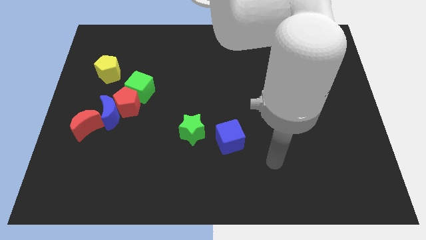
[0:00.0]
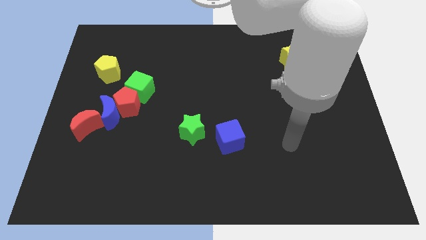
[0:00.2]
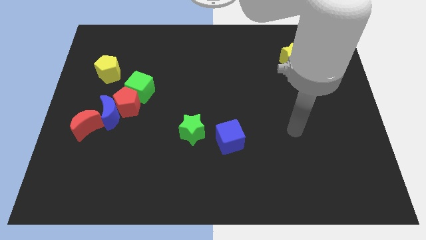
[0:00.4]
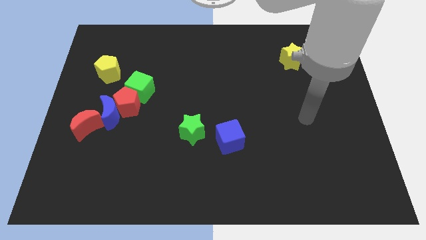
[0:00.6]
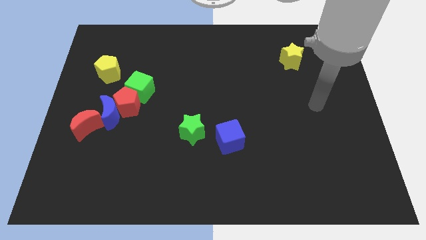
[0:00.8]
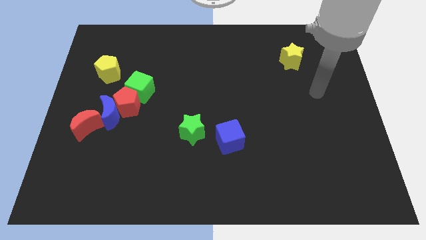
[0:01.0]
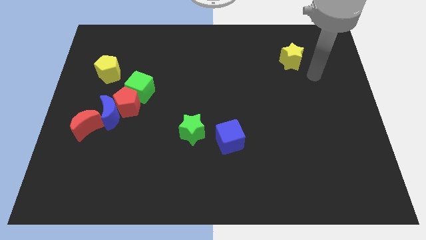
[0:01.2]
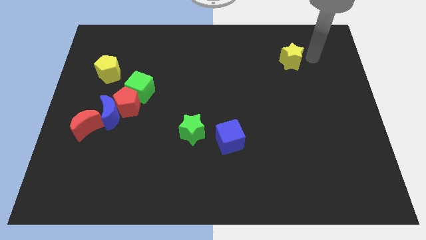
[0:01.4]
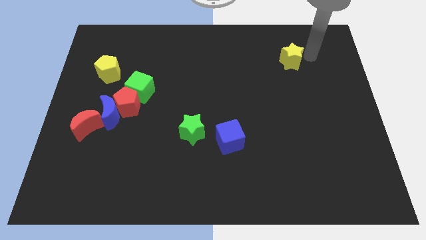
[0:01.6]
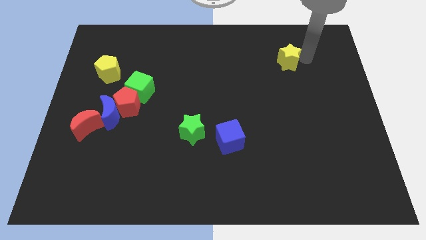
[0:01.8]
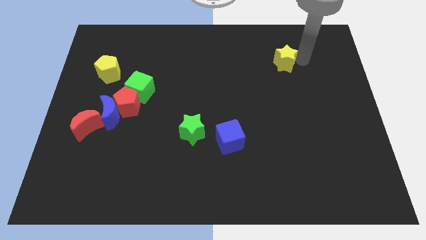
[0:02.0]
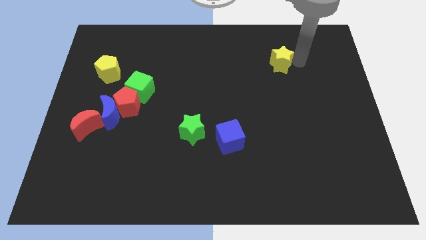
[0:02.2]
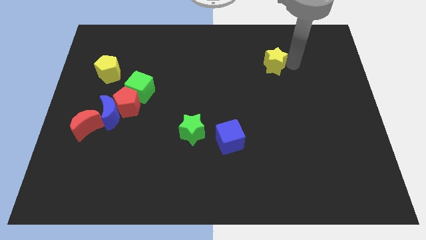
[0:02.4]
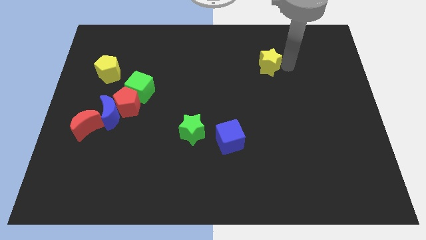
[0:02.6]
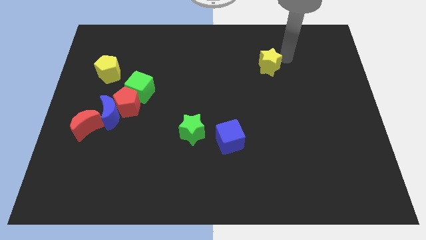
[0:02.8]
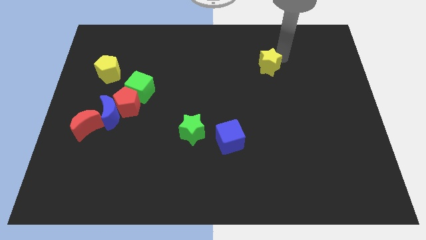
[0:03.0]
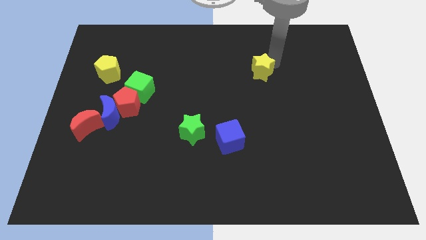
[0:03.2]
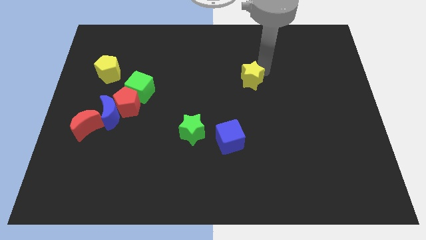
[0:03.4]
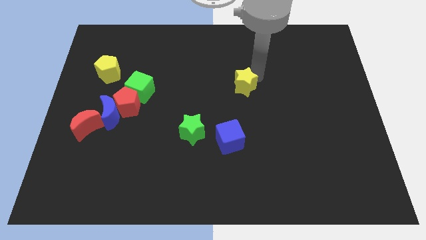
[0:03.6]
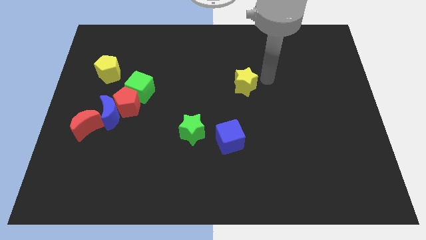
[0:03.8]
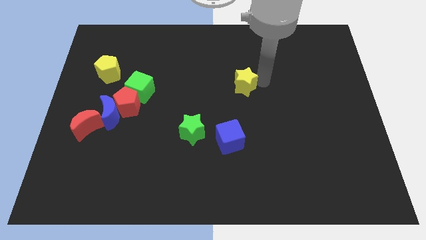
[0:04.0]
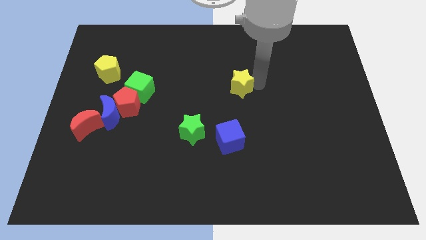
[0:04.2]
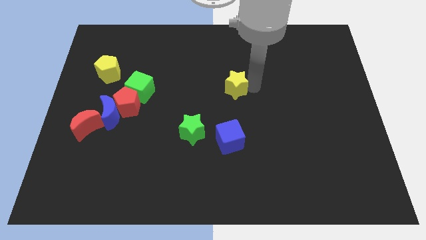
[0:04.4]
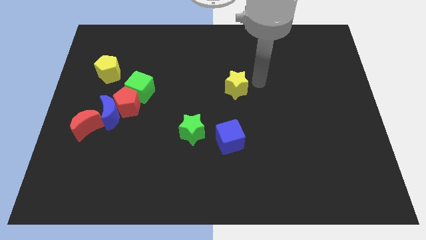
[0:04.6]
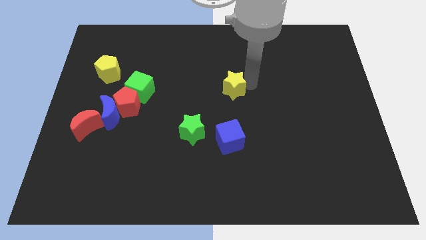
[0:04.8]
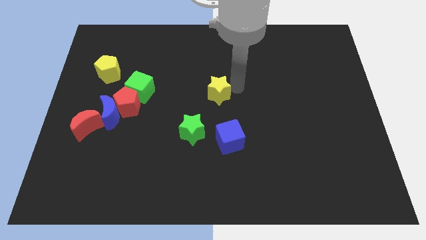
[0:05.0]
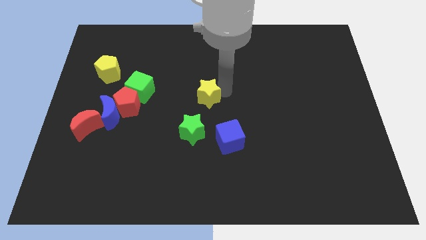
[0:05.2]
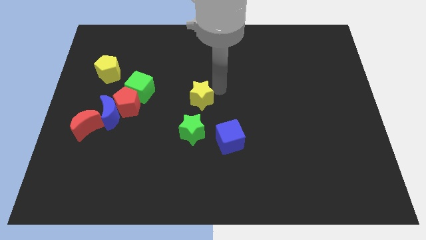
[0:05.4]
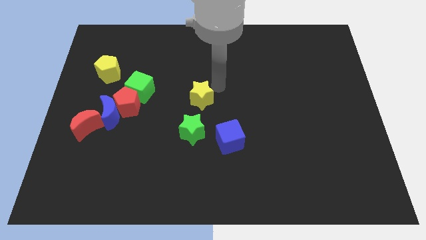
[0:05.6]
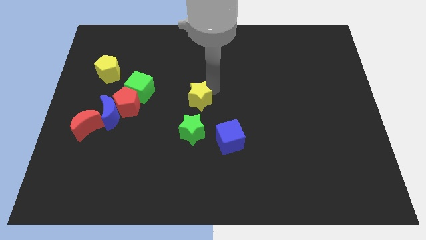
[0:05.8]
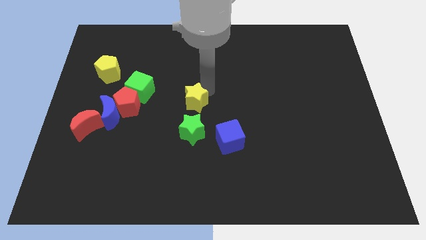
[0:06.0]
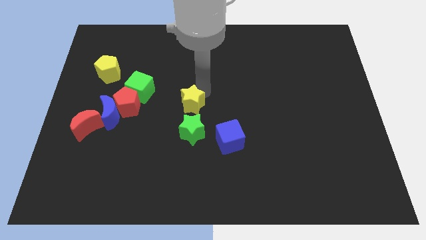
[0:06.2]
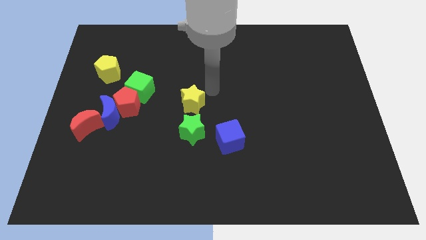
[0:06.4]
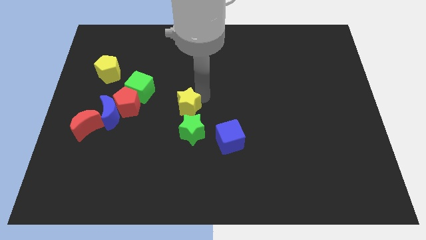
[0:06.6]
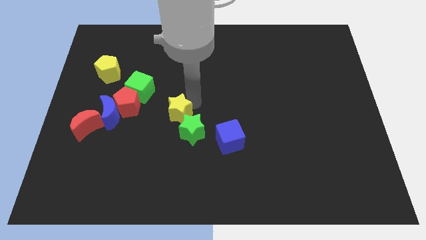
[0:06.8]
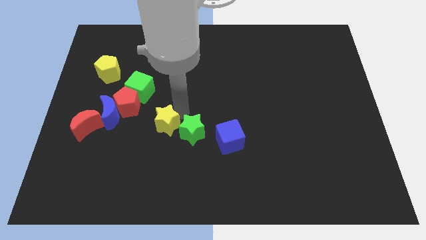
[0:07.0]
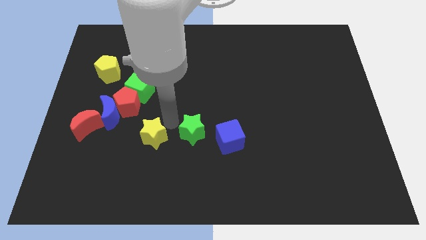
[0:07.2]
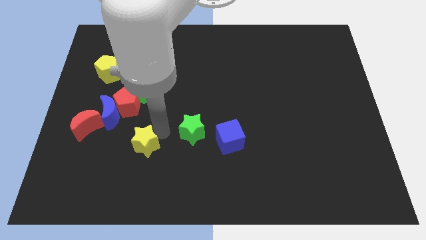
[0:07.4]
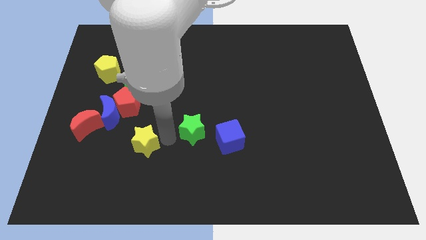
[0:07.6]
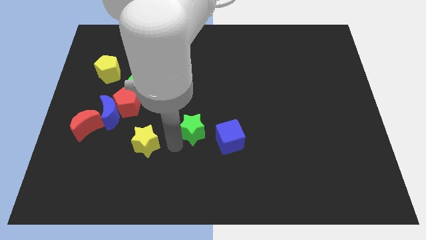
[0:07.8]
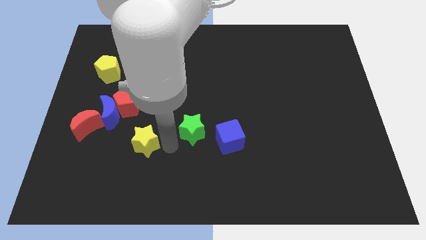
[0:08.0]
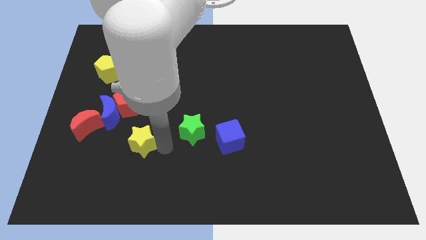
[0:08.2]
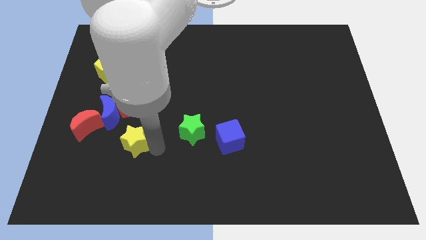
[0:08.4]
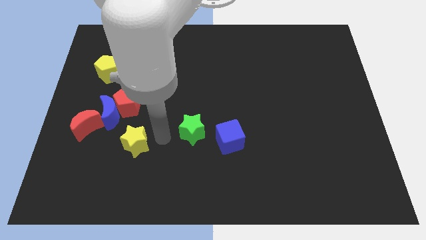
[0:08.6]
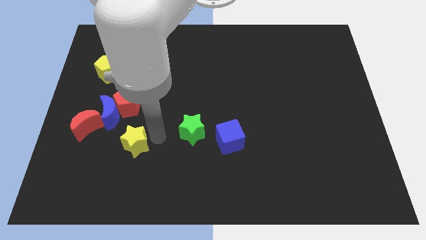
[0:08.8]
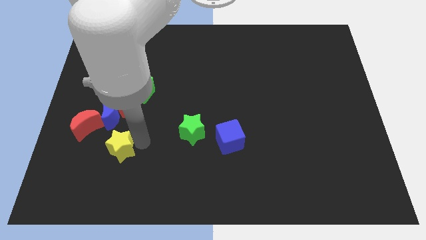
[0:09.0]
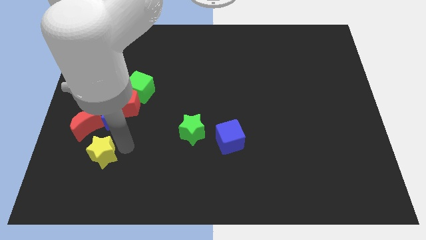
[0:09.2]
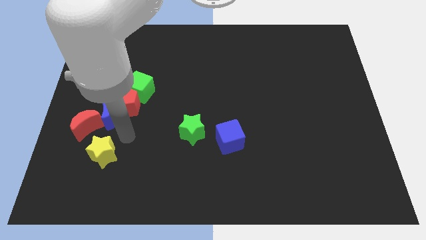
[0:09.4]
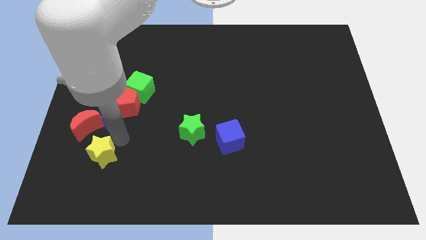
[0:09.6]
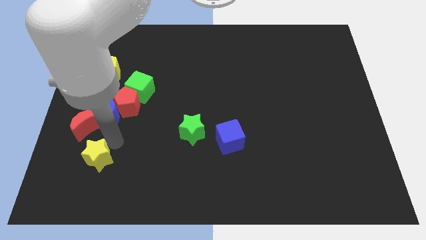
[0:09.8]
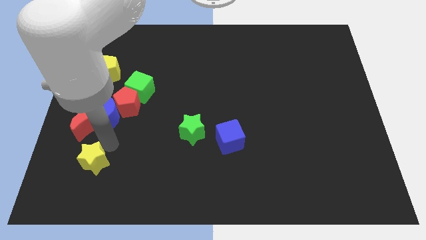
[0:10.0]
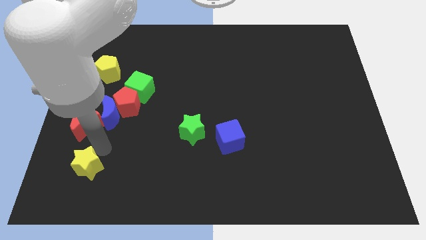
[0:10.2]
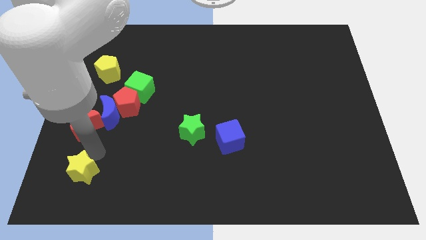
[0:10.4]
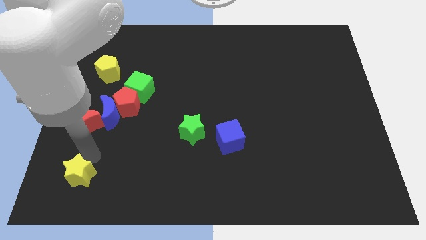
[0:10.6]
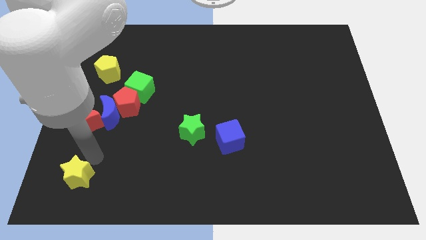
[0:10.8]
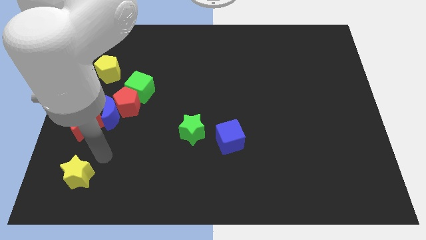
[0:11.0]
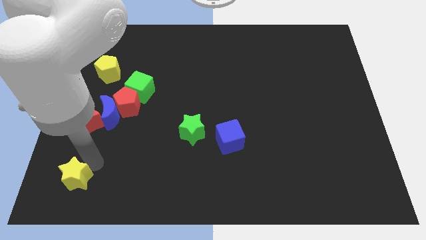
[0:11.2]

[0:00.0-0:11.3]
move the yellow star to the bottom left

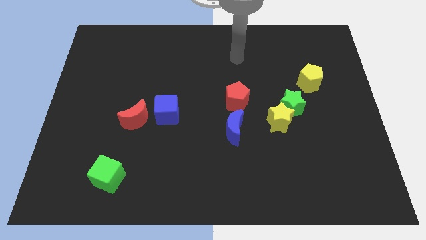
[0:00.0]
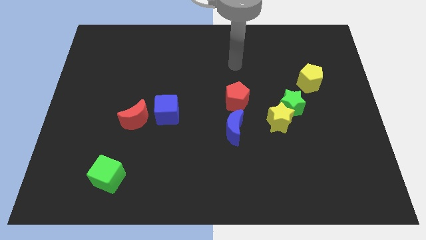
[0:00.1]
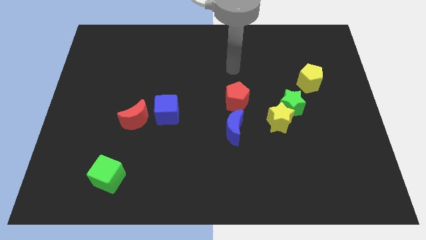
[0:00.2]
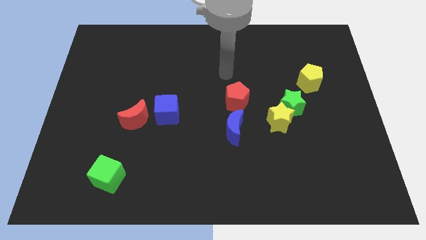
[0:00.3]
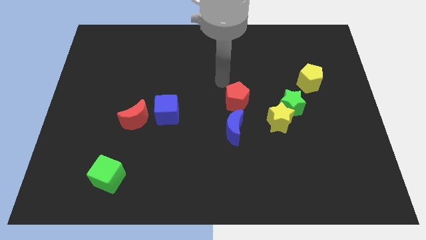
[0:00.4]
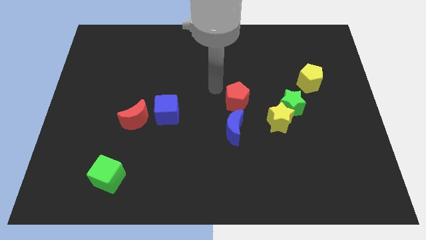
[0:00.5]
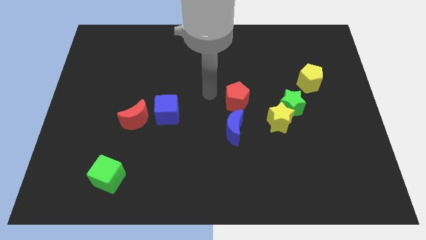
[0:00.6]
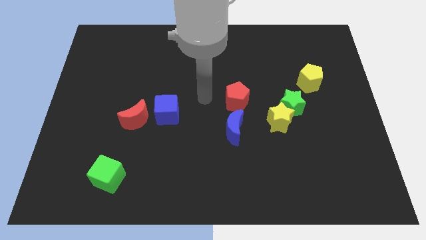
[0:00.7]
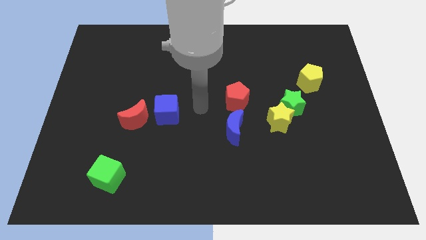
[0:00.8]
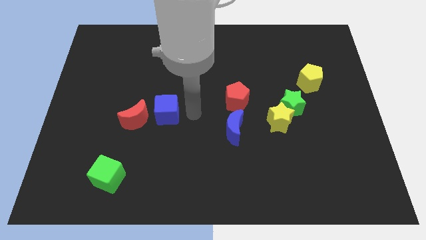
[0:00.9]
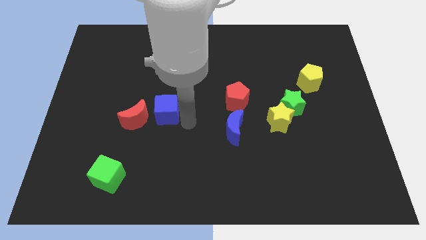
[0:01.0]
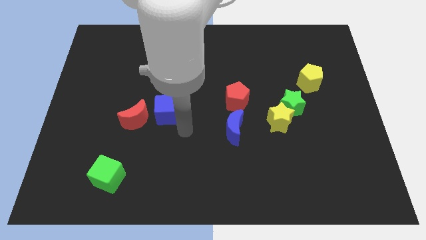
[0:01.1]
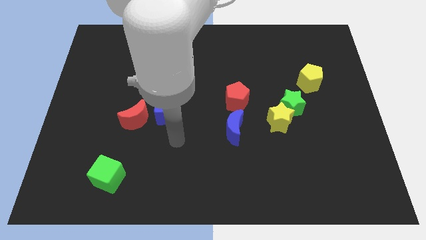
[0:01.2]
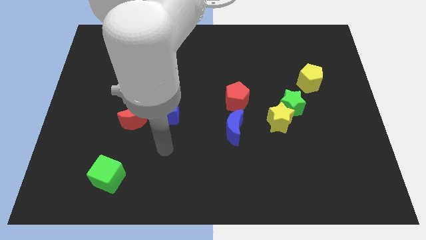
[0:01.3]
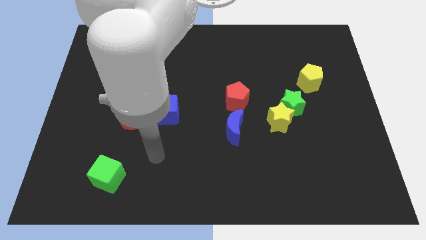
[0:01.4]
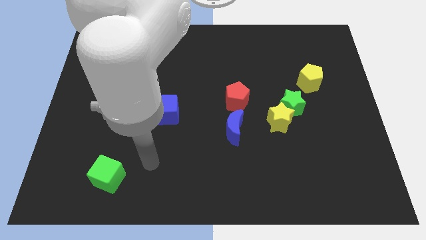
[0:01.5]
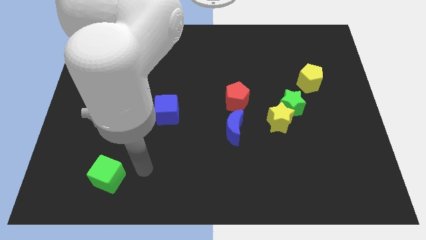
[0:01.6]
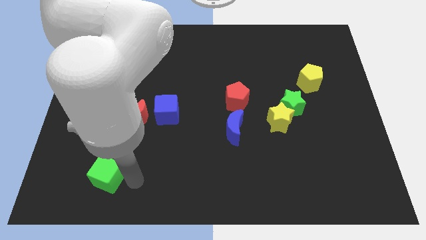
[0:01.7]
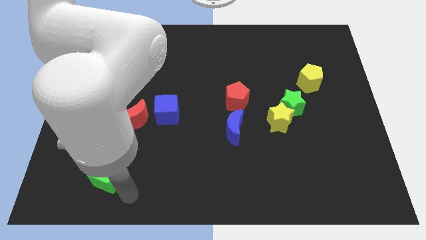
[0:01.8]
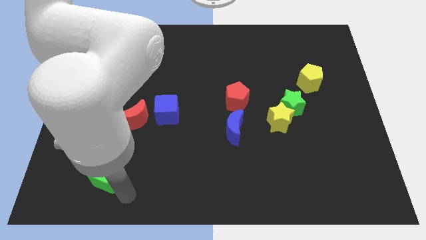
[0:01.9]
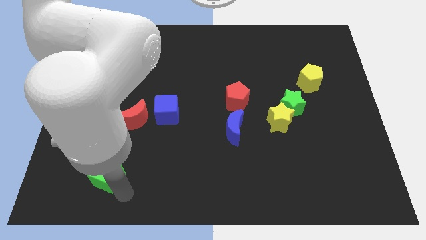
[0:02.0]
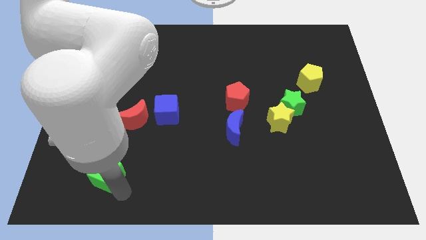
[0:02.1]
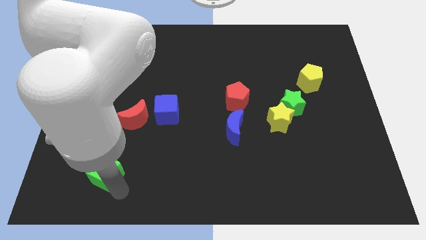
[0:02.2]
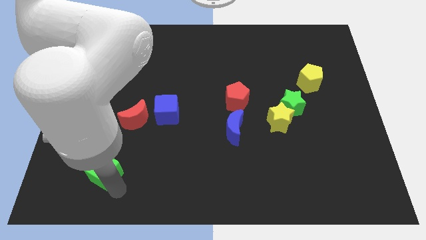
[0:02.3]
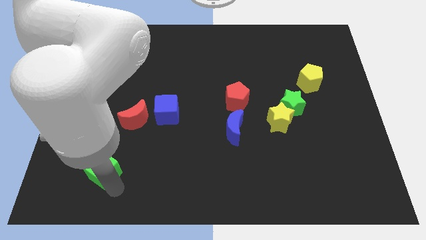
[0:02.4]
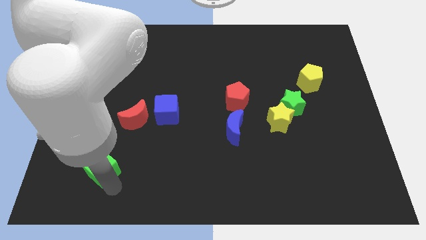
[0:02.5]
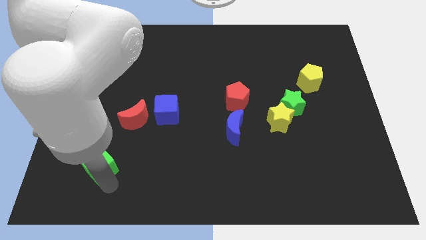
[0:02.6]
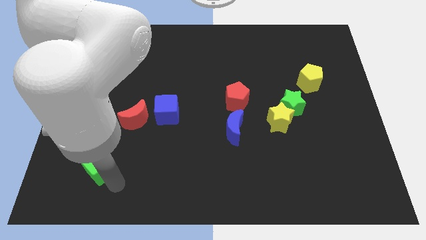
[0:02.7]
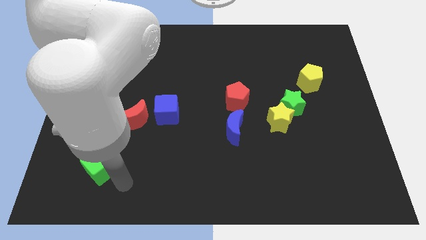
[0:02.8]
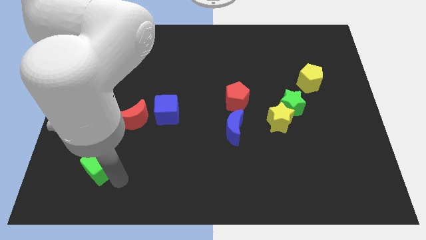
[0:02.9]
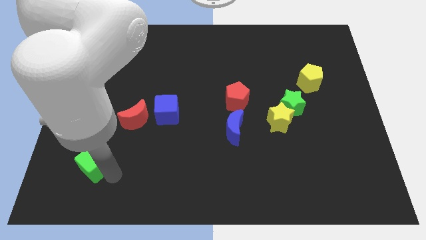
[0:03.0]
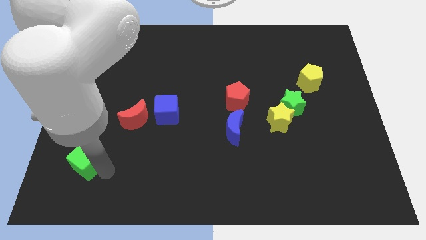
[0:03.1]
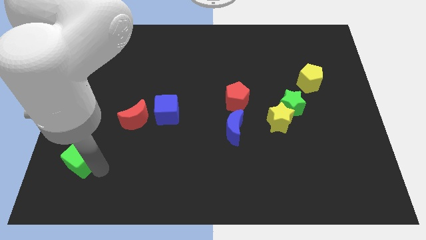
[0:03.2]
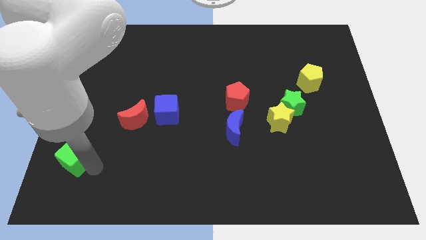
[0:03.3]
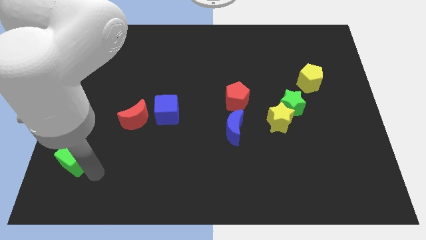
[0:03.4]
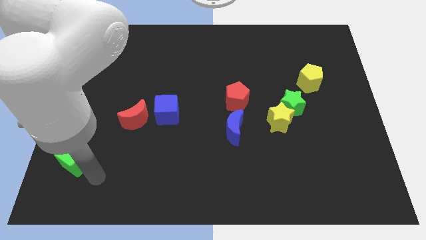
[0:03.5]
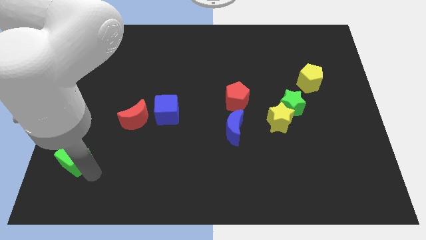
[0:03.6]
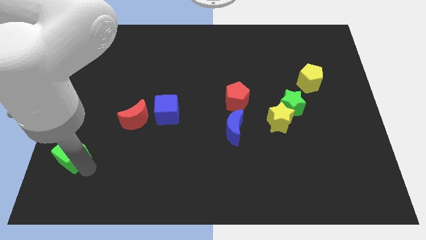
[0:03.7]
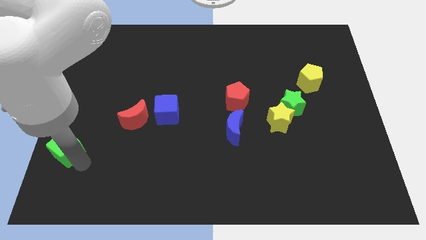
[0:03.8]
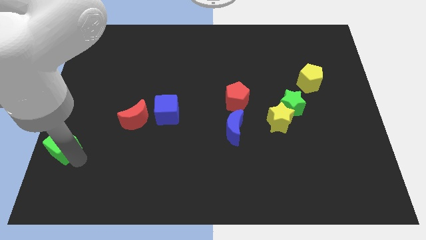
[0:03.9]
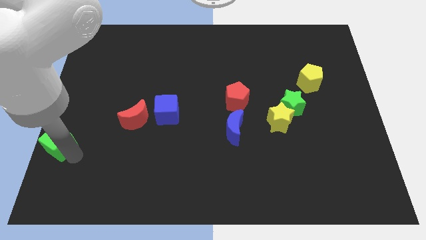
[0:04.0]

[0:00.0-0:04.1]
slide the green cube to the left side of the board
